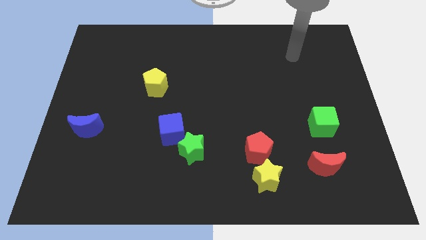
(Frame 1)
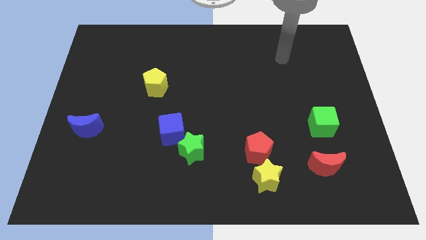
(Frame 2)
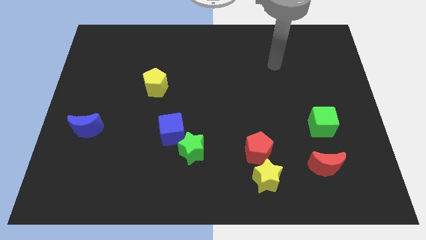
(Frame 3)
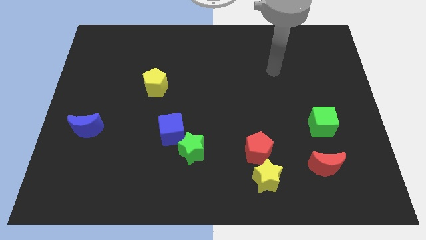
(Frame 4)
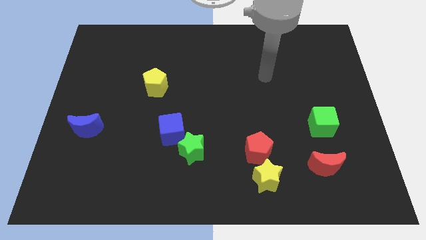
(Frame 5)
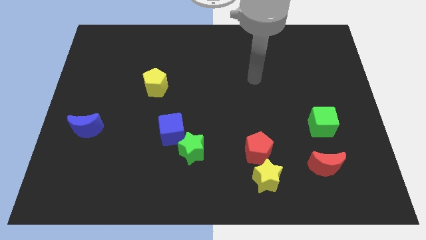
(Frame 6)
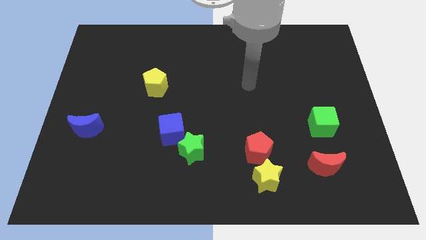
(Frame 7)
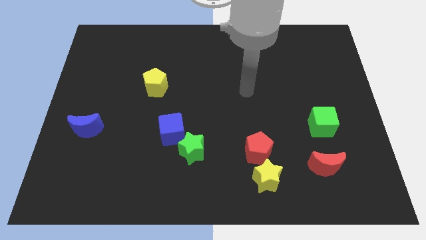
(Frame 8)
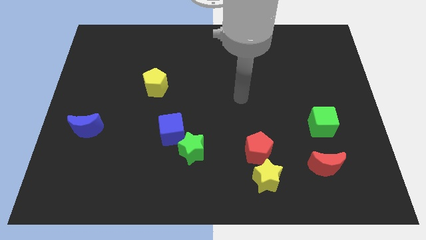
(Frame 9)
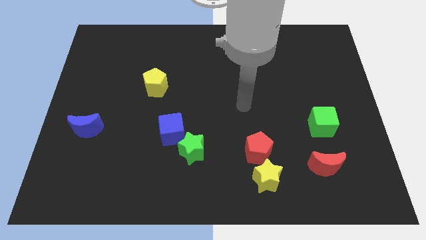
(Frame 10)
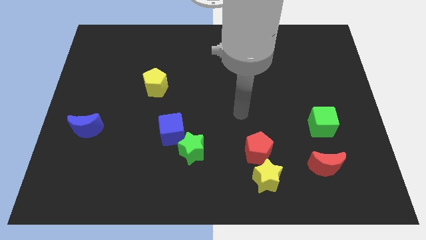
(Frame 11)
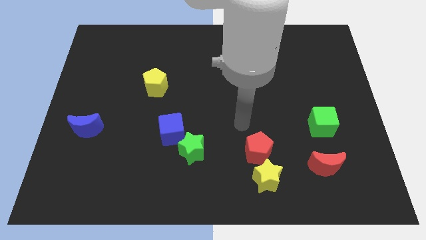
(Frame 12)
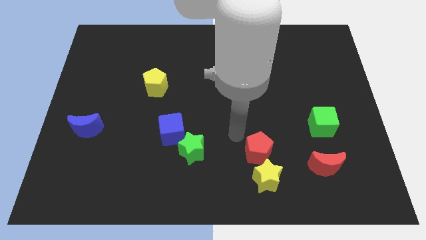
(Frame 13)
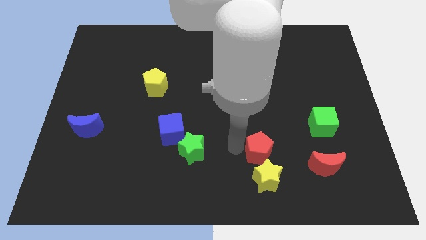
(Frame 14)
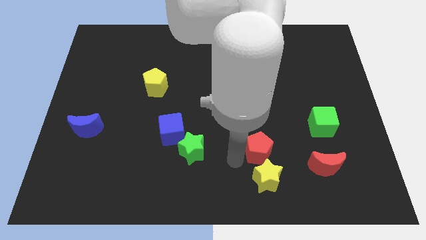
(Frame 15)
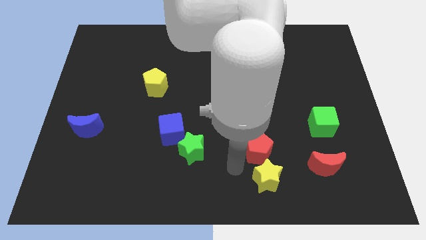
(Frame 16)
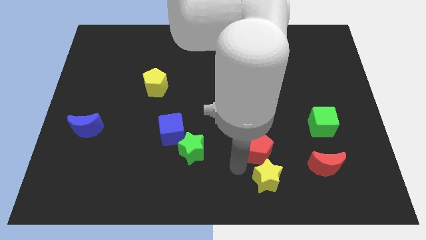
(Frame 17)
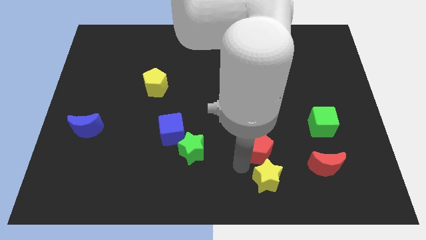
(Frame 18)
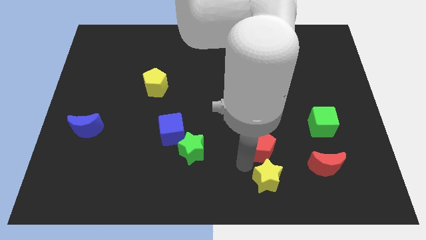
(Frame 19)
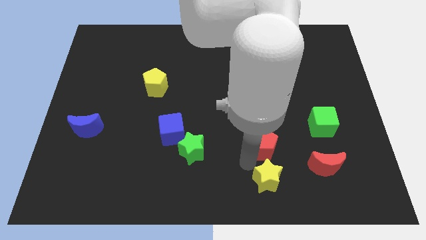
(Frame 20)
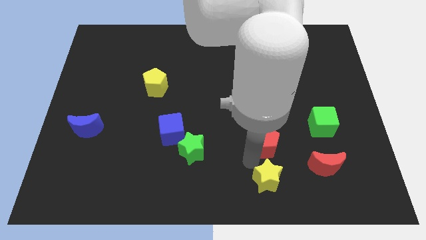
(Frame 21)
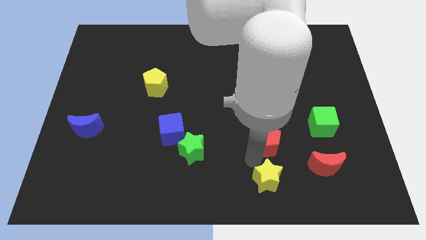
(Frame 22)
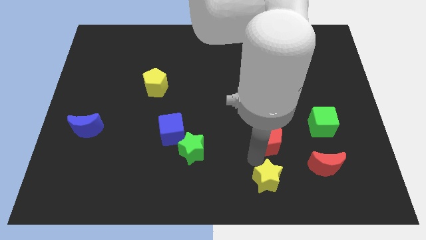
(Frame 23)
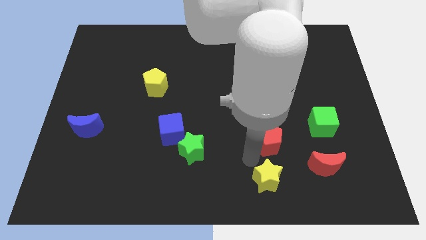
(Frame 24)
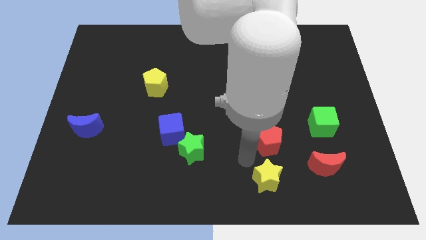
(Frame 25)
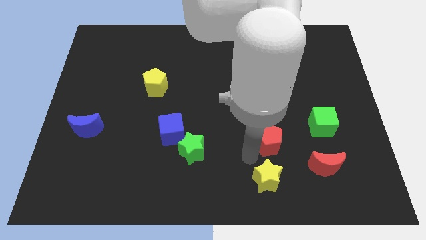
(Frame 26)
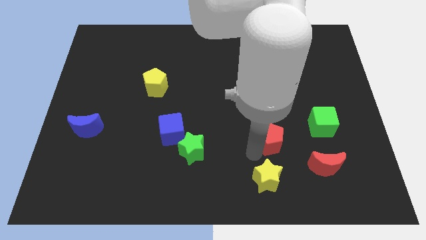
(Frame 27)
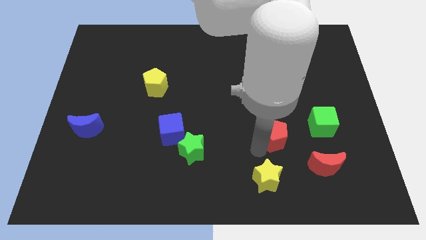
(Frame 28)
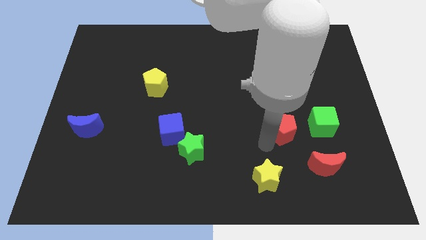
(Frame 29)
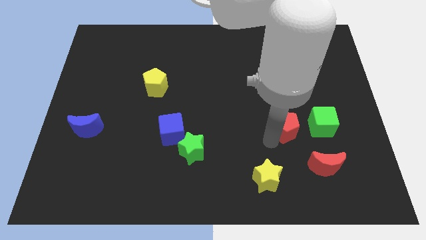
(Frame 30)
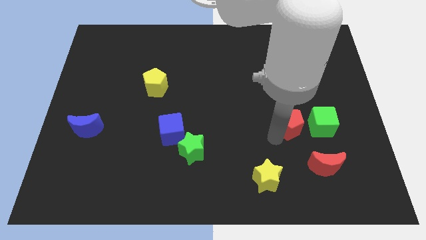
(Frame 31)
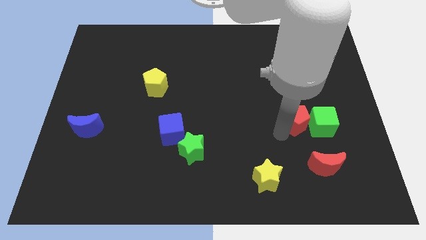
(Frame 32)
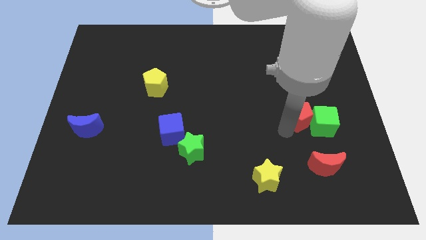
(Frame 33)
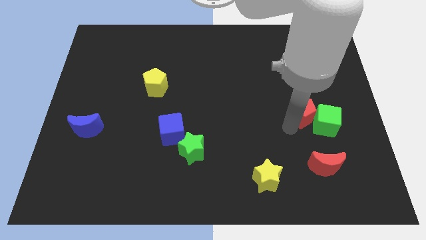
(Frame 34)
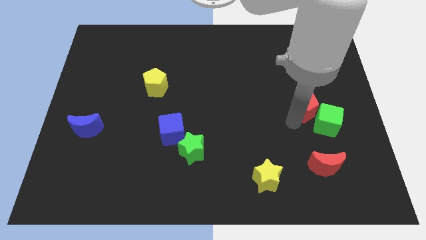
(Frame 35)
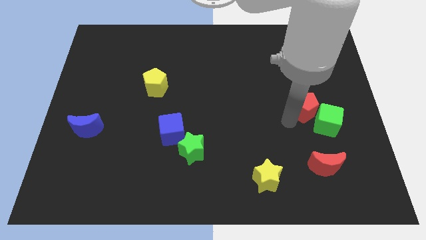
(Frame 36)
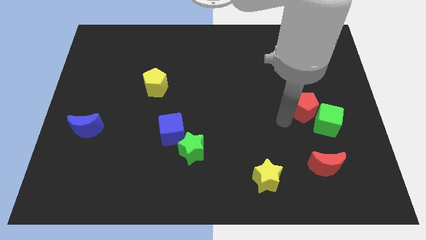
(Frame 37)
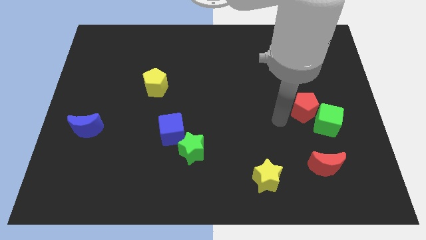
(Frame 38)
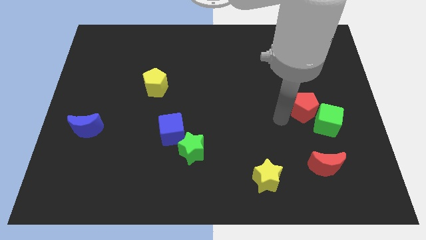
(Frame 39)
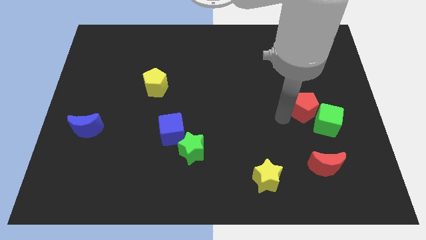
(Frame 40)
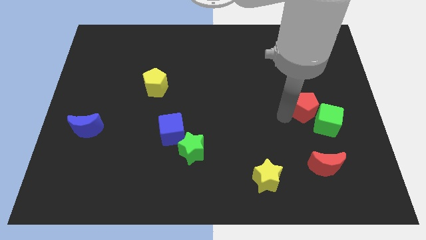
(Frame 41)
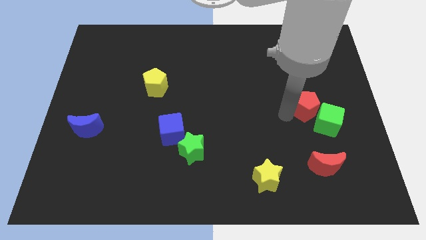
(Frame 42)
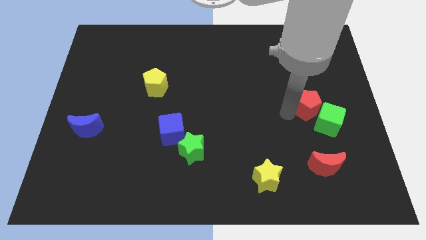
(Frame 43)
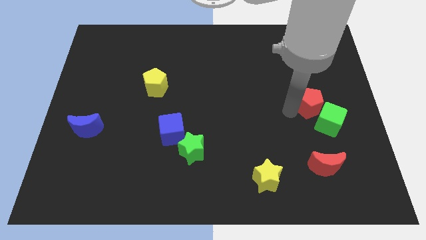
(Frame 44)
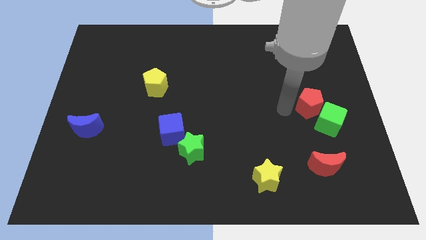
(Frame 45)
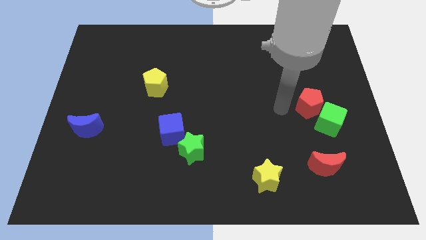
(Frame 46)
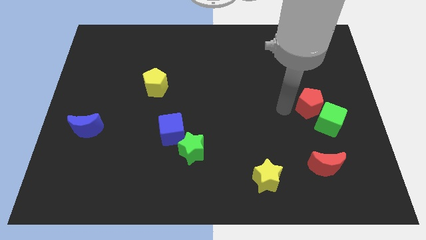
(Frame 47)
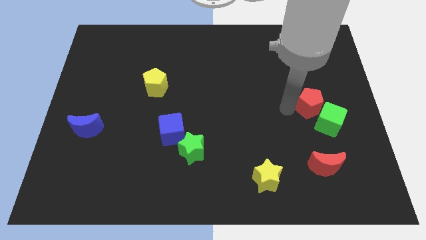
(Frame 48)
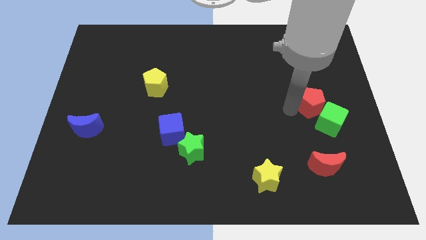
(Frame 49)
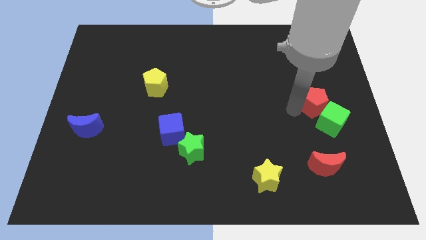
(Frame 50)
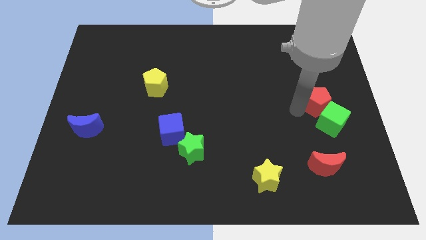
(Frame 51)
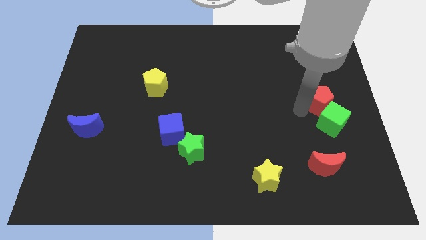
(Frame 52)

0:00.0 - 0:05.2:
slide the red pentagon to the right side
